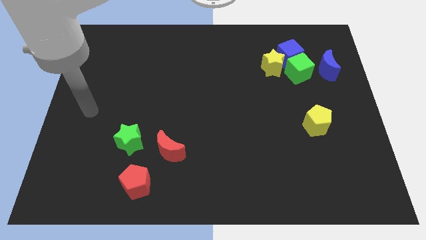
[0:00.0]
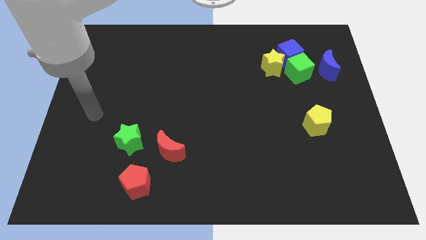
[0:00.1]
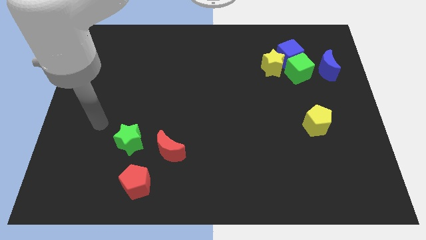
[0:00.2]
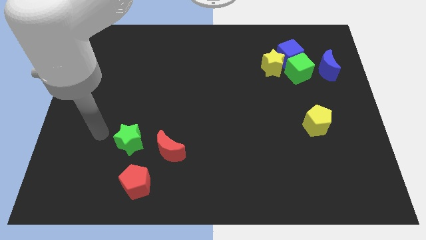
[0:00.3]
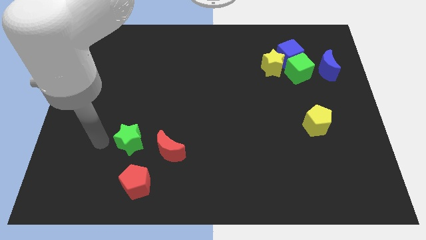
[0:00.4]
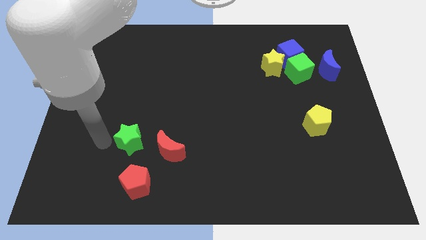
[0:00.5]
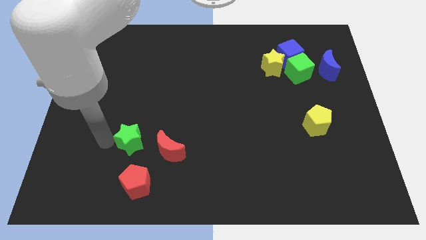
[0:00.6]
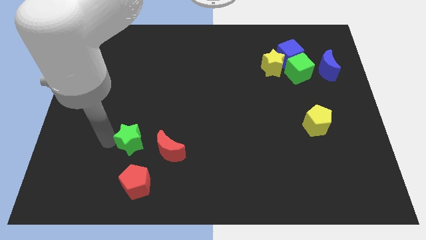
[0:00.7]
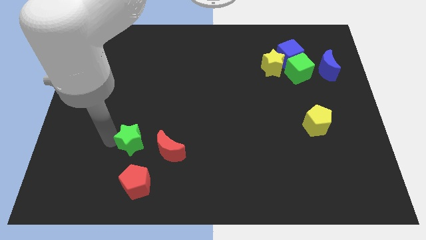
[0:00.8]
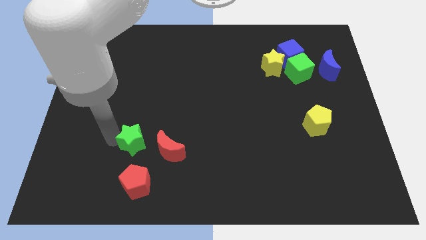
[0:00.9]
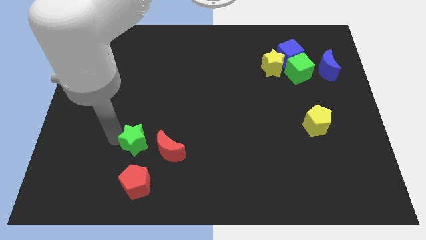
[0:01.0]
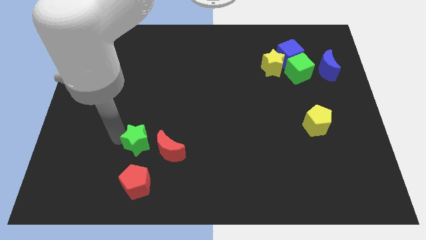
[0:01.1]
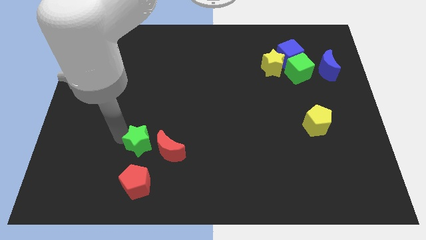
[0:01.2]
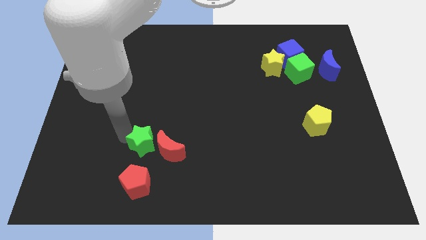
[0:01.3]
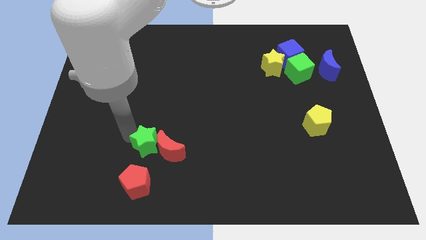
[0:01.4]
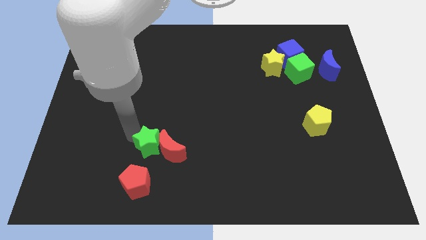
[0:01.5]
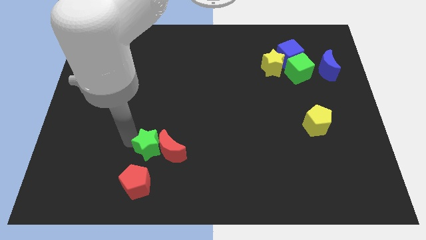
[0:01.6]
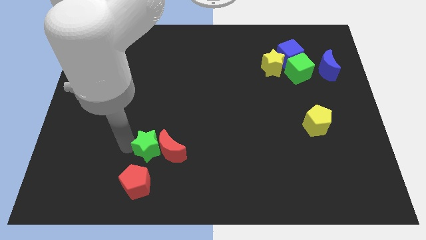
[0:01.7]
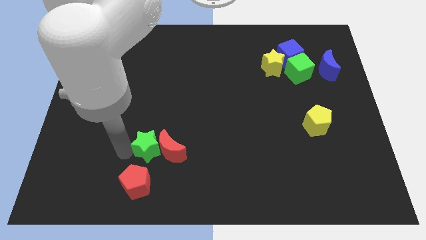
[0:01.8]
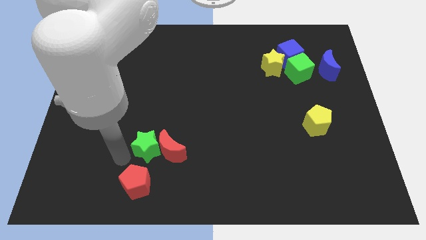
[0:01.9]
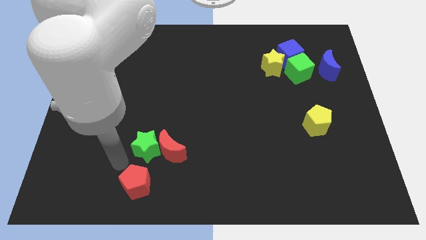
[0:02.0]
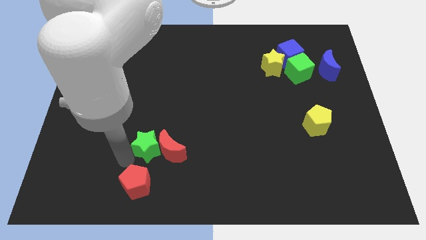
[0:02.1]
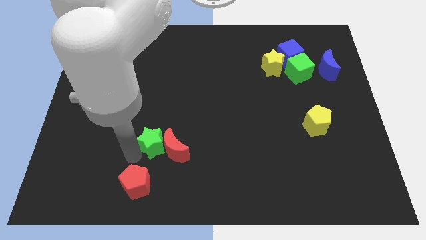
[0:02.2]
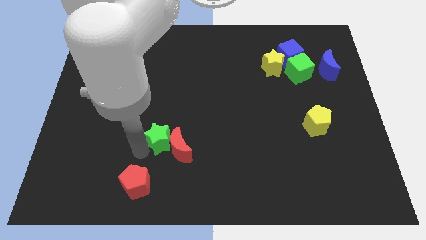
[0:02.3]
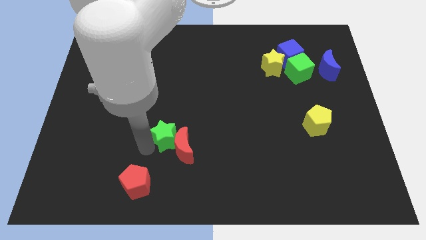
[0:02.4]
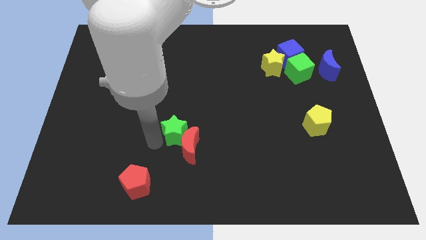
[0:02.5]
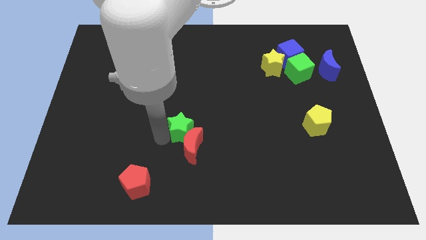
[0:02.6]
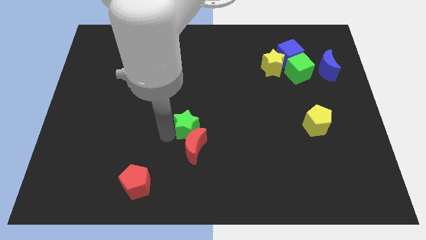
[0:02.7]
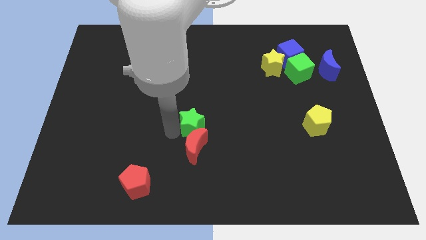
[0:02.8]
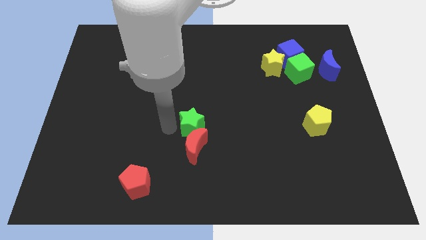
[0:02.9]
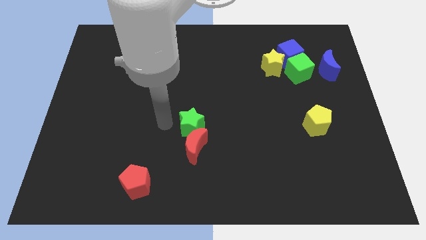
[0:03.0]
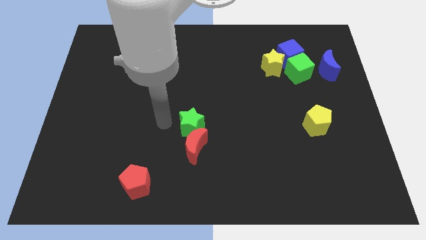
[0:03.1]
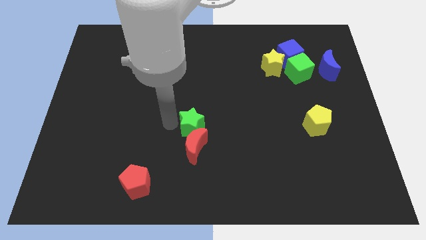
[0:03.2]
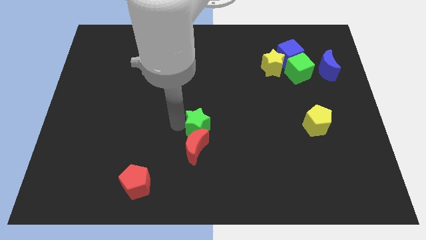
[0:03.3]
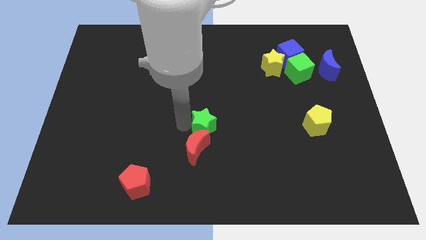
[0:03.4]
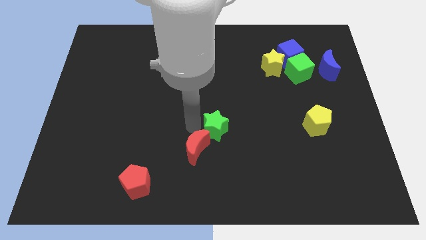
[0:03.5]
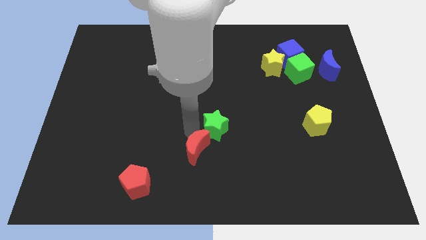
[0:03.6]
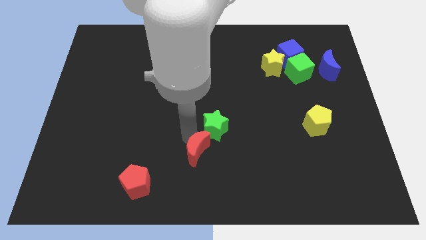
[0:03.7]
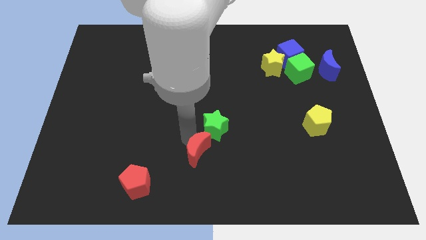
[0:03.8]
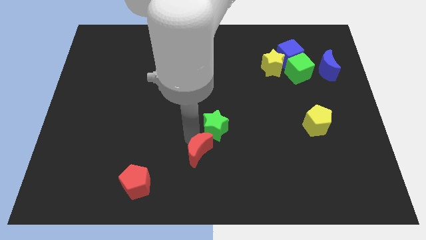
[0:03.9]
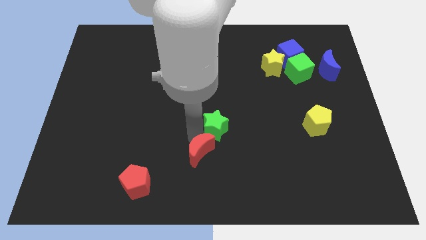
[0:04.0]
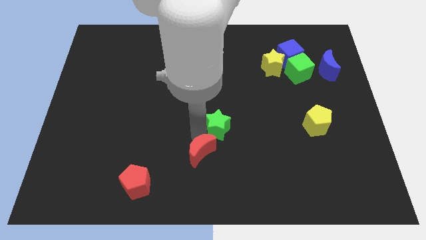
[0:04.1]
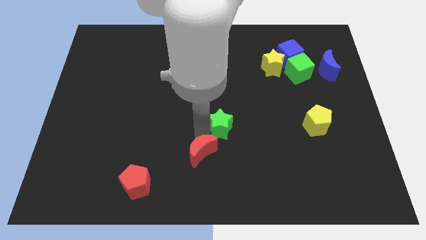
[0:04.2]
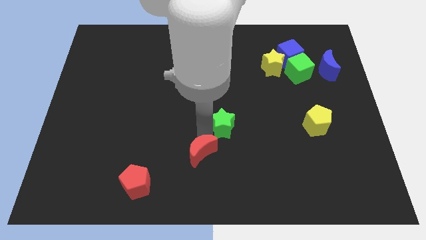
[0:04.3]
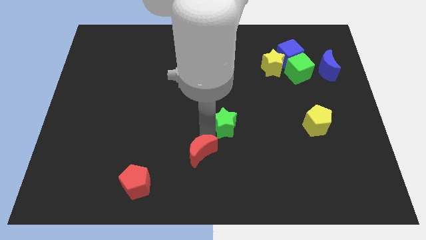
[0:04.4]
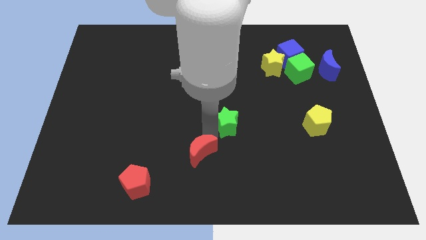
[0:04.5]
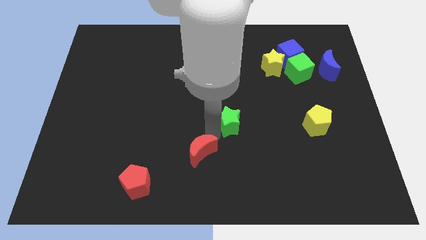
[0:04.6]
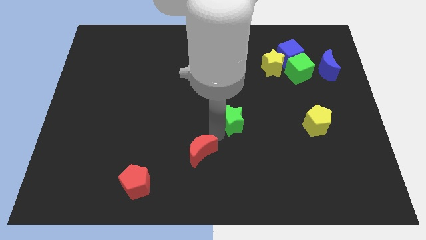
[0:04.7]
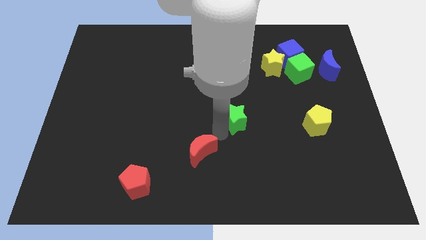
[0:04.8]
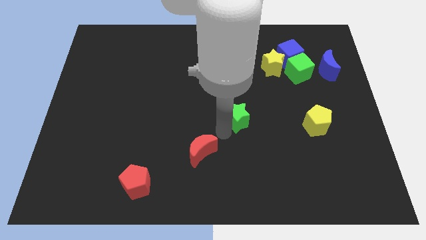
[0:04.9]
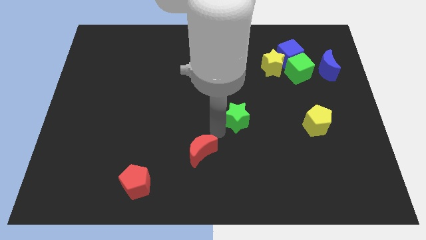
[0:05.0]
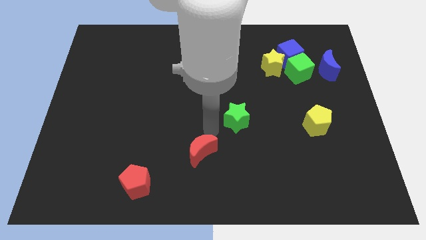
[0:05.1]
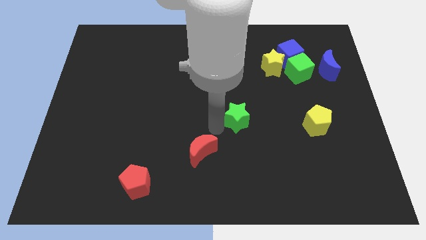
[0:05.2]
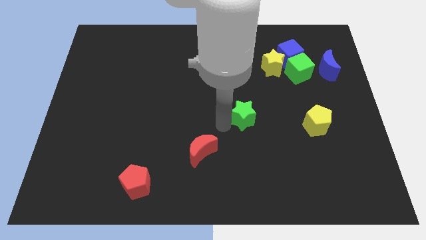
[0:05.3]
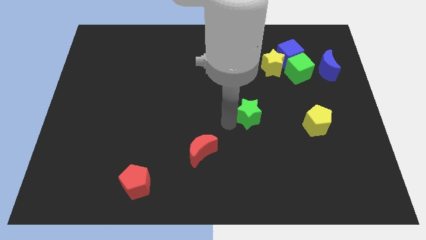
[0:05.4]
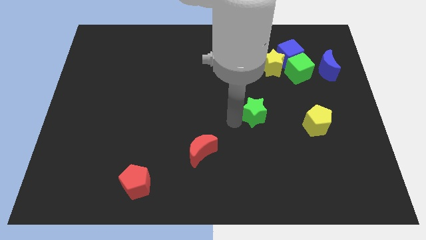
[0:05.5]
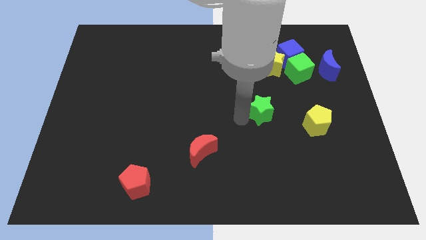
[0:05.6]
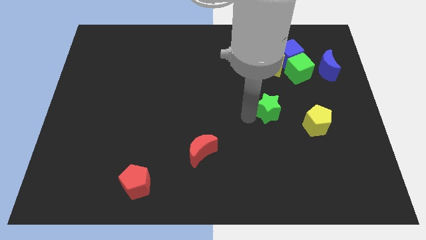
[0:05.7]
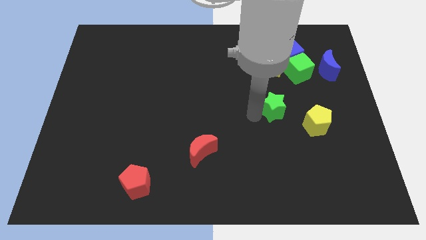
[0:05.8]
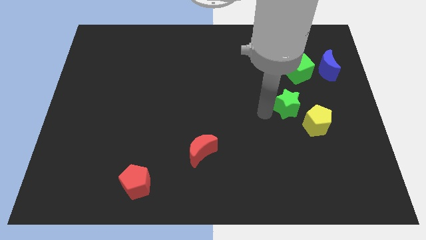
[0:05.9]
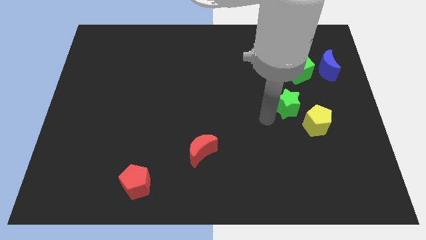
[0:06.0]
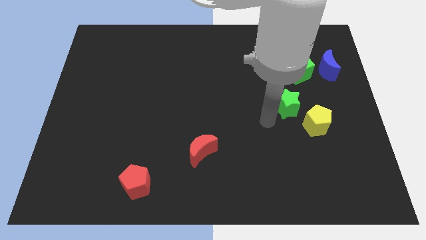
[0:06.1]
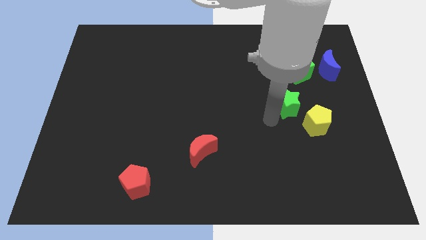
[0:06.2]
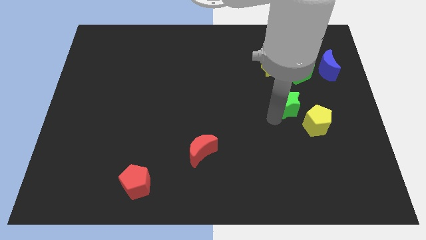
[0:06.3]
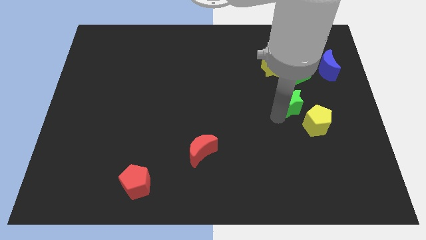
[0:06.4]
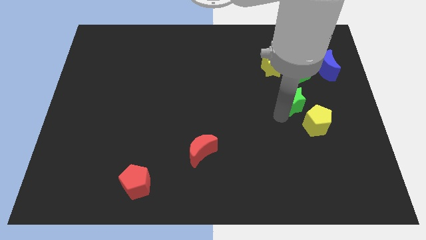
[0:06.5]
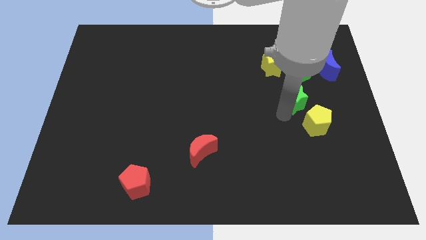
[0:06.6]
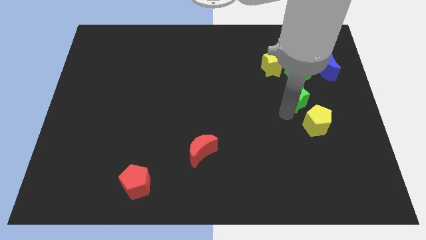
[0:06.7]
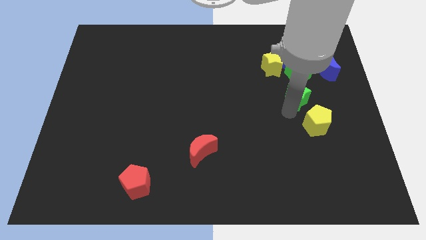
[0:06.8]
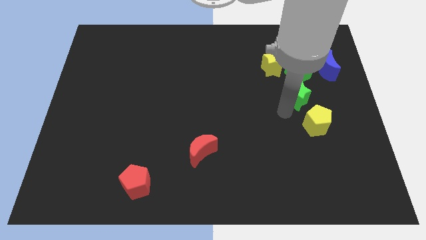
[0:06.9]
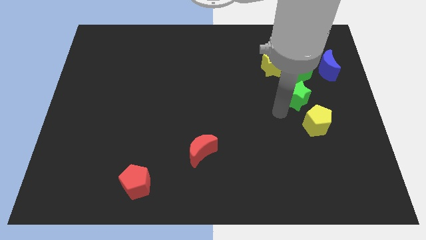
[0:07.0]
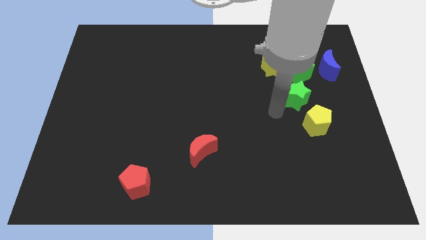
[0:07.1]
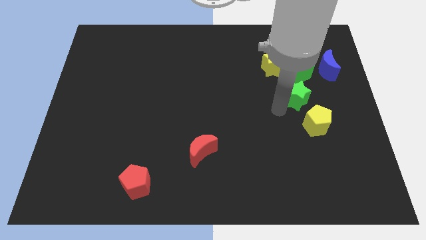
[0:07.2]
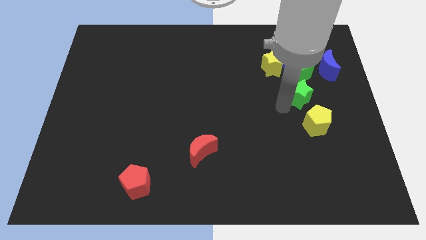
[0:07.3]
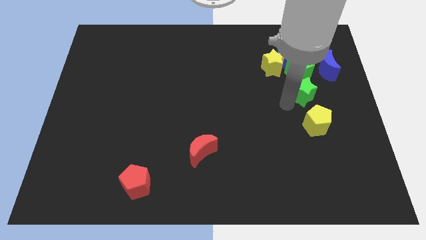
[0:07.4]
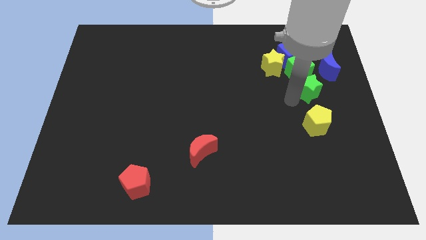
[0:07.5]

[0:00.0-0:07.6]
put the green star to the bottom right of the green cube
